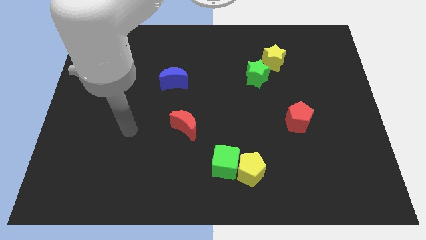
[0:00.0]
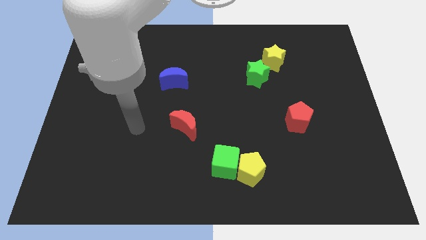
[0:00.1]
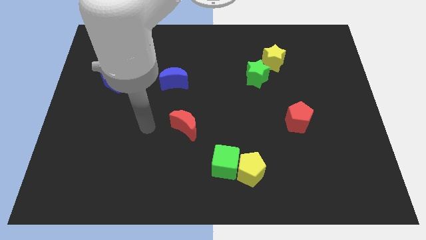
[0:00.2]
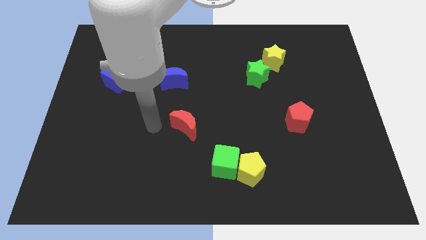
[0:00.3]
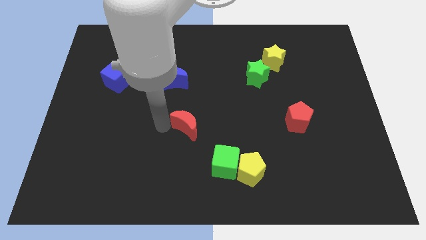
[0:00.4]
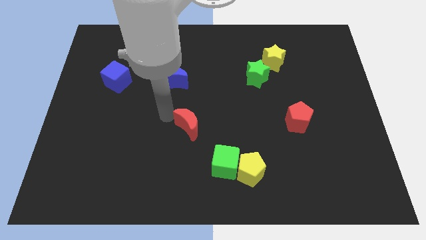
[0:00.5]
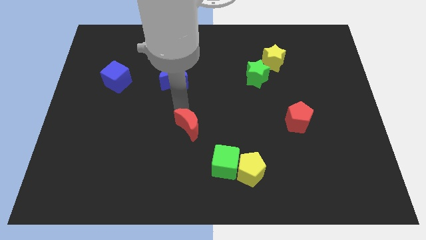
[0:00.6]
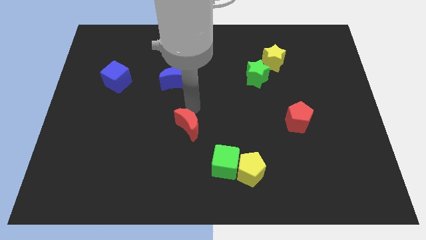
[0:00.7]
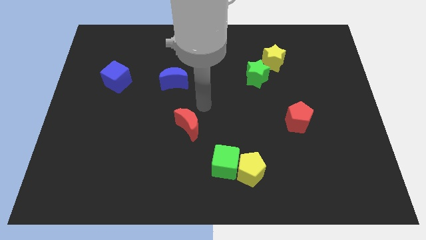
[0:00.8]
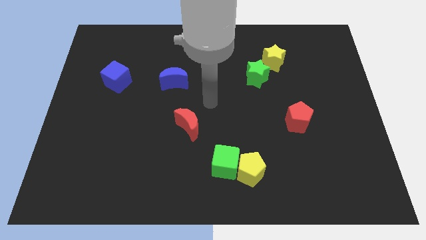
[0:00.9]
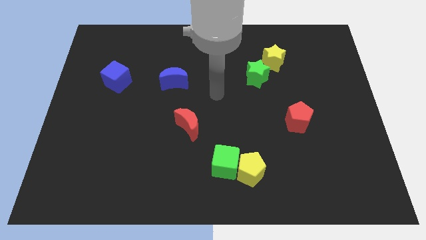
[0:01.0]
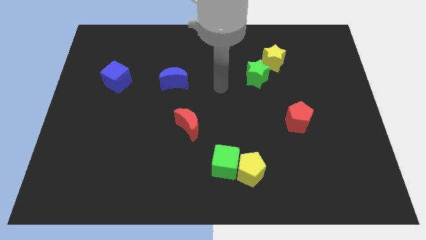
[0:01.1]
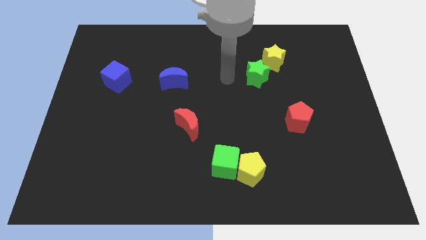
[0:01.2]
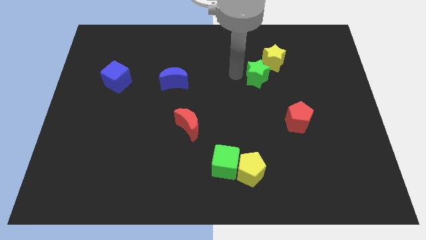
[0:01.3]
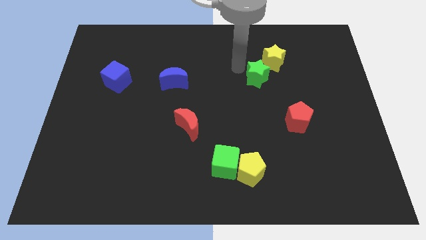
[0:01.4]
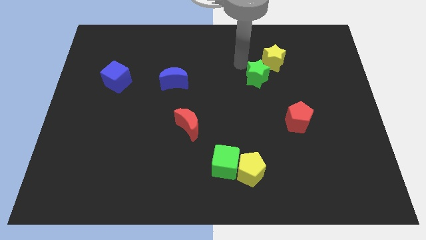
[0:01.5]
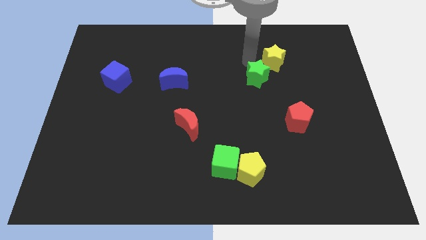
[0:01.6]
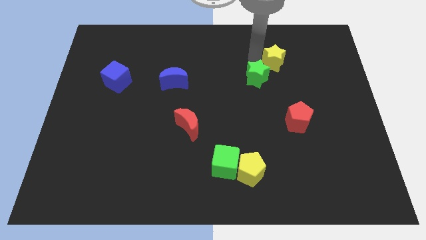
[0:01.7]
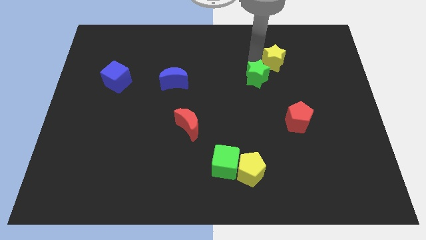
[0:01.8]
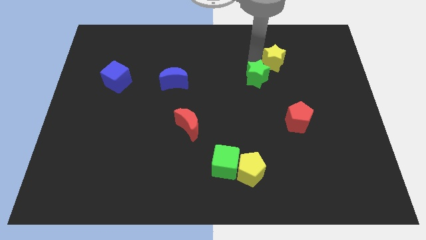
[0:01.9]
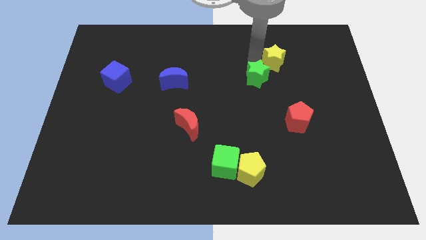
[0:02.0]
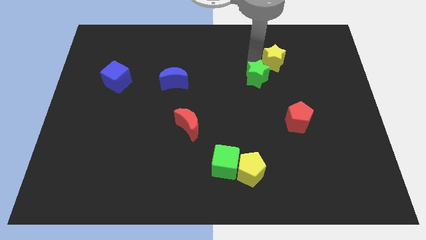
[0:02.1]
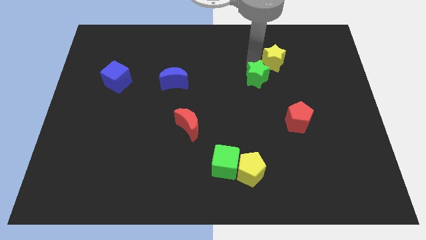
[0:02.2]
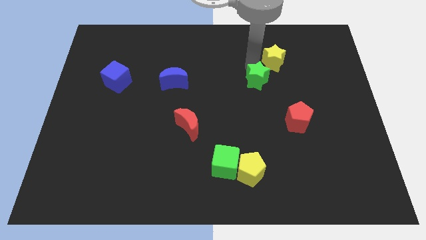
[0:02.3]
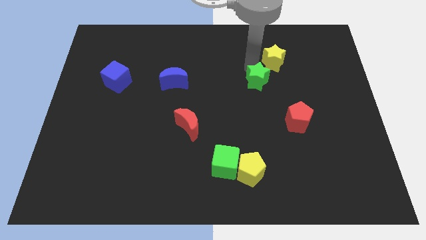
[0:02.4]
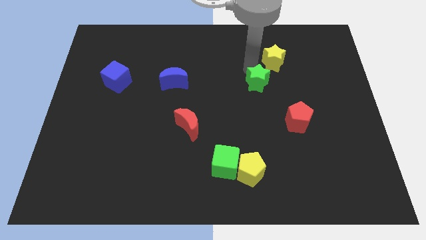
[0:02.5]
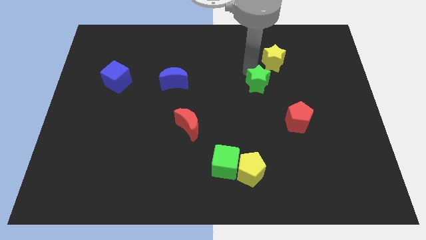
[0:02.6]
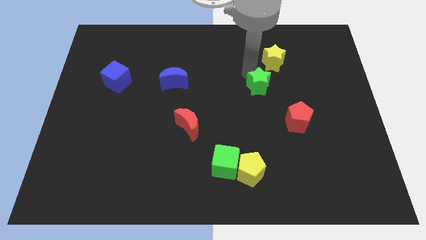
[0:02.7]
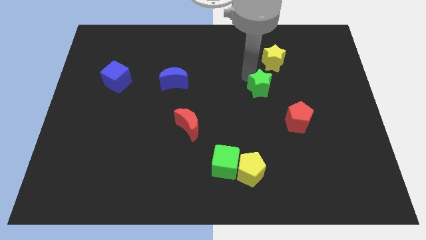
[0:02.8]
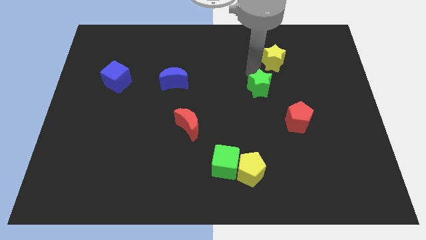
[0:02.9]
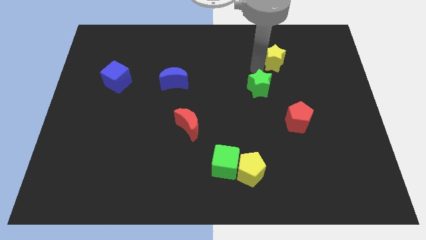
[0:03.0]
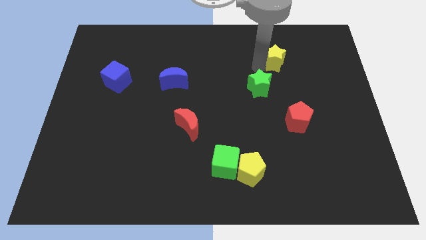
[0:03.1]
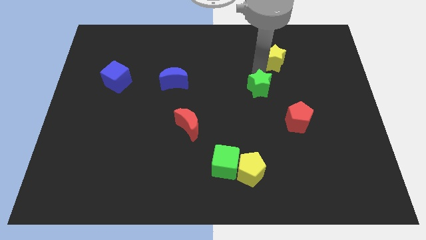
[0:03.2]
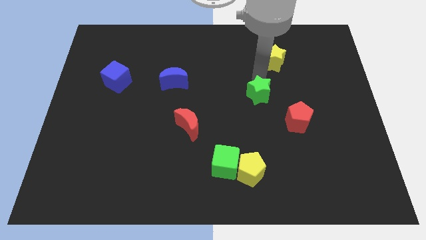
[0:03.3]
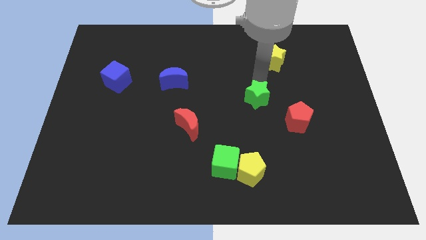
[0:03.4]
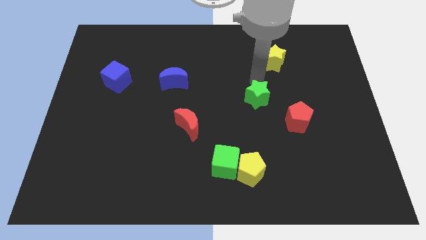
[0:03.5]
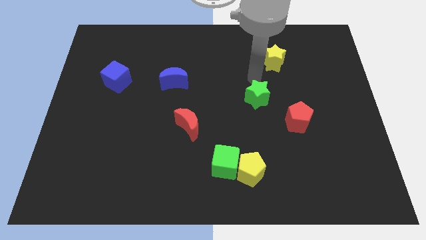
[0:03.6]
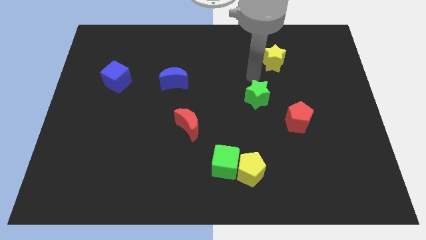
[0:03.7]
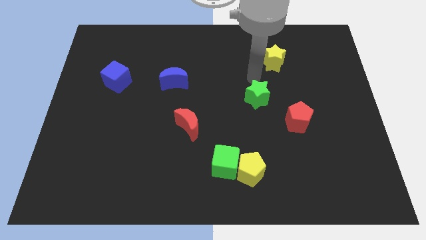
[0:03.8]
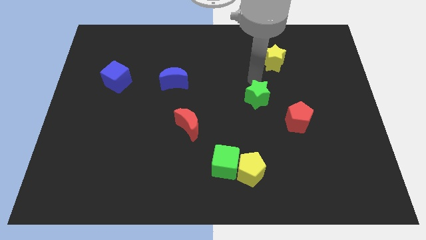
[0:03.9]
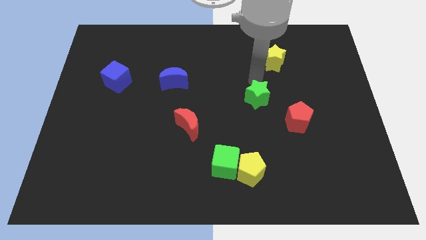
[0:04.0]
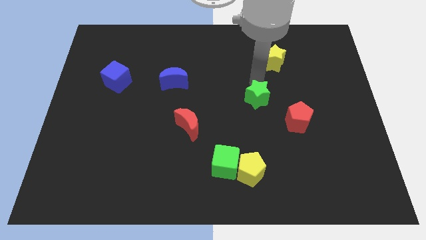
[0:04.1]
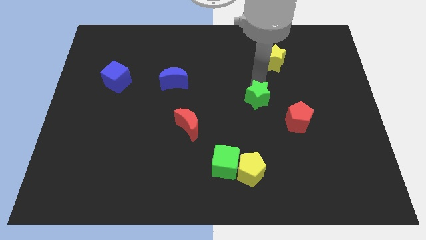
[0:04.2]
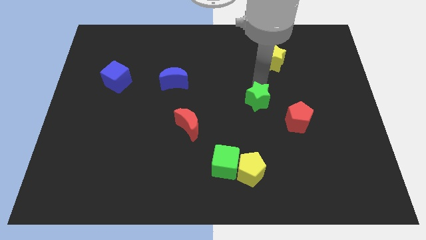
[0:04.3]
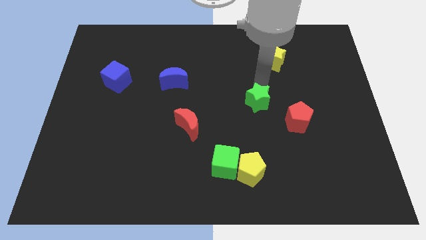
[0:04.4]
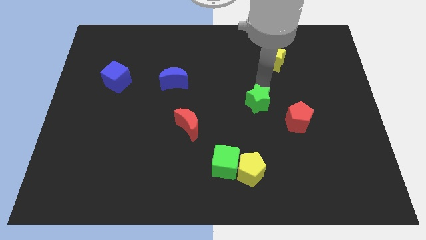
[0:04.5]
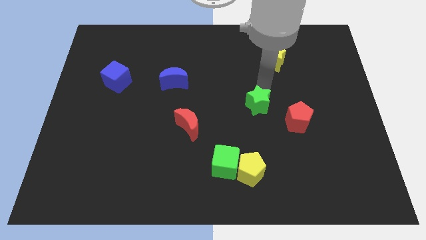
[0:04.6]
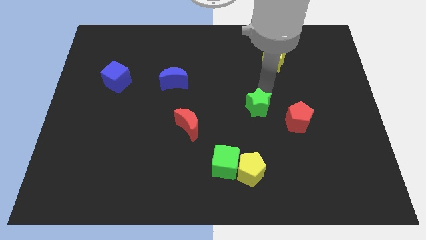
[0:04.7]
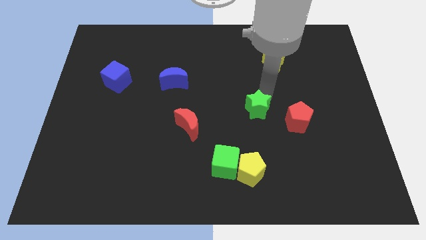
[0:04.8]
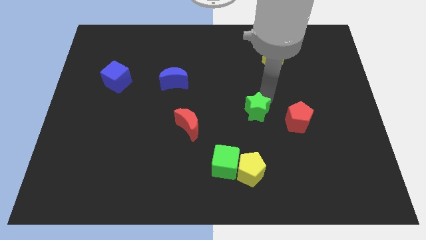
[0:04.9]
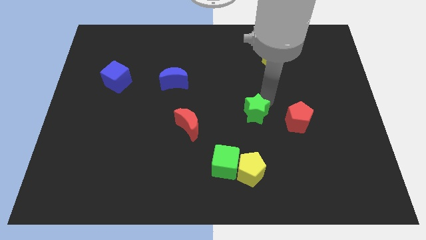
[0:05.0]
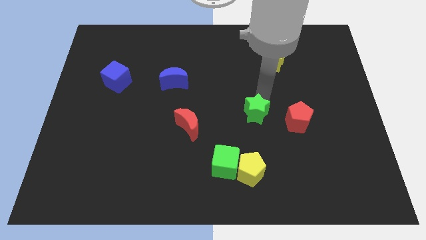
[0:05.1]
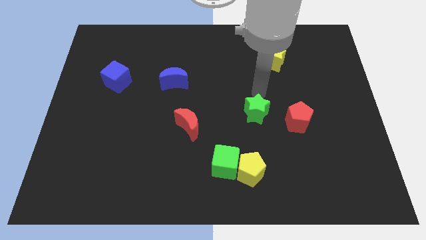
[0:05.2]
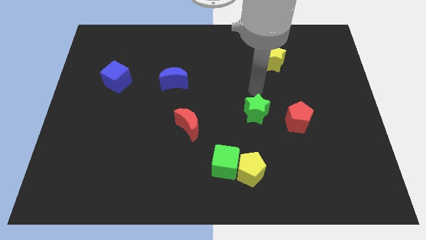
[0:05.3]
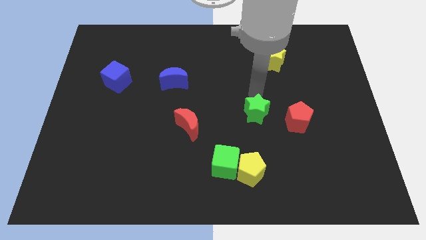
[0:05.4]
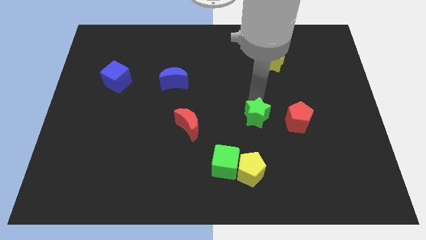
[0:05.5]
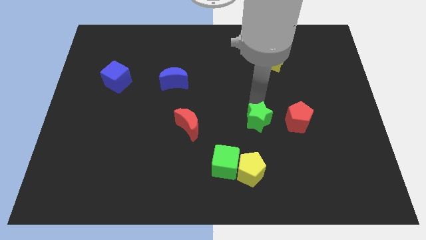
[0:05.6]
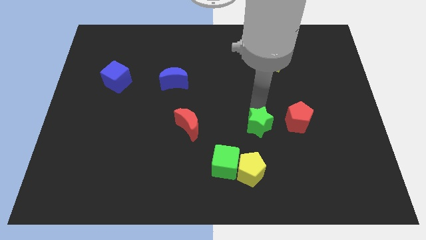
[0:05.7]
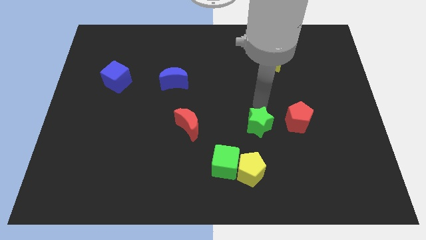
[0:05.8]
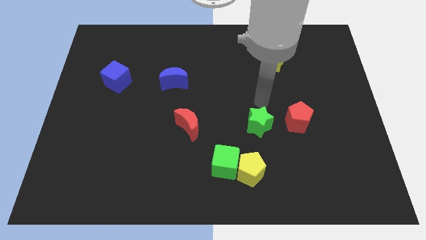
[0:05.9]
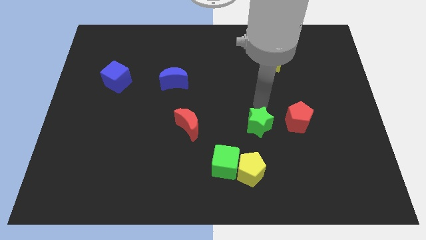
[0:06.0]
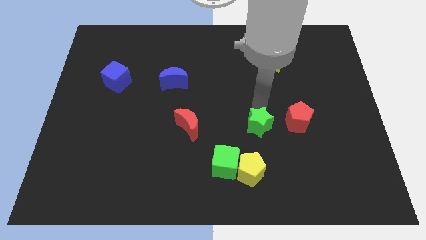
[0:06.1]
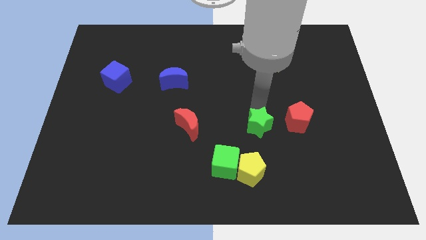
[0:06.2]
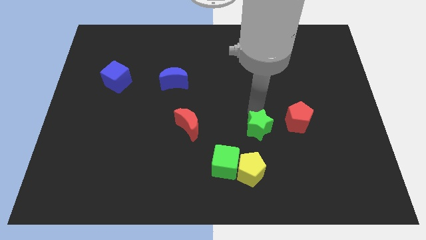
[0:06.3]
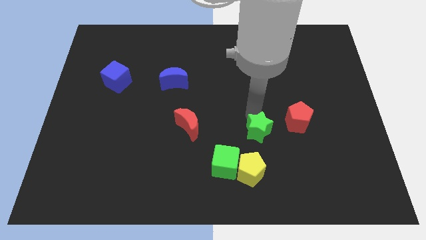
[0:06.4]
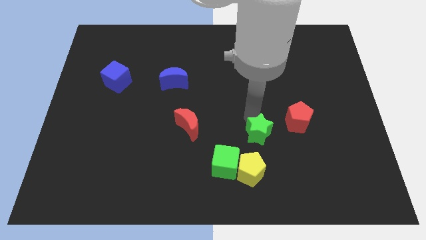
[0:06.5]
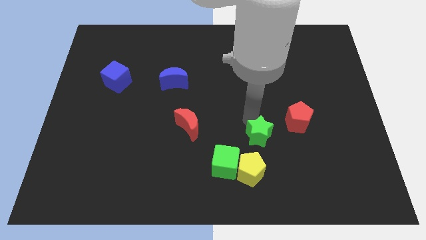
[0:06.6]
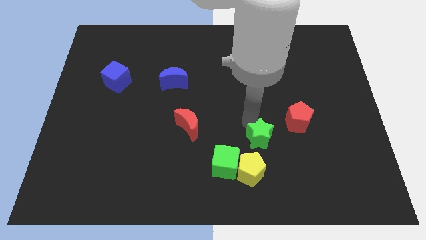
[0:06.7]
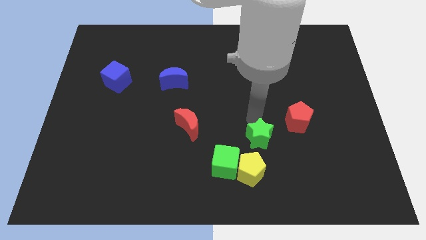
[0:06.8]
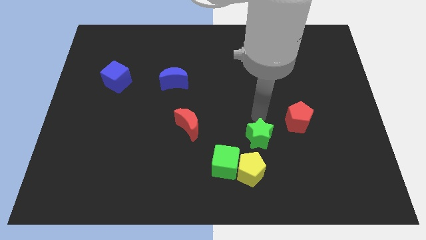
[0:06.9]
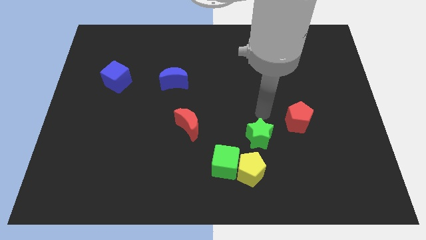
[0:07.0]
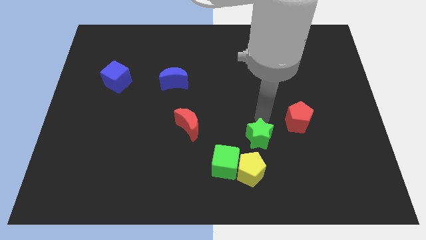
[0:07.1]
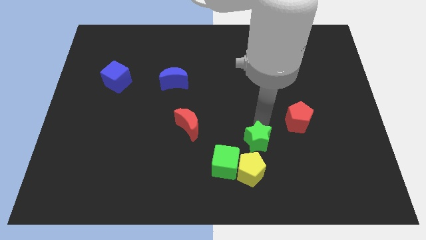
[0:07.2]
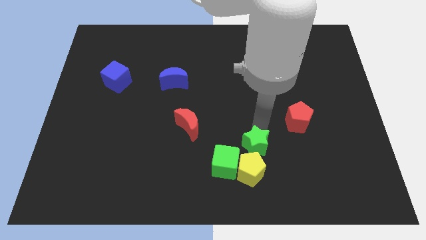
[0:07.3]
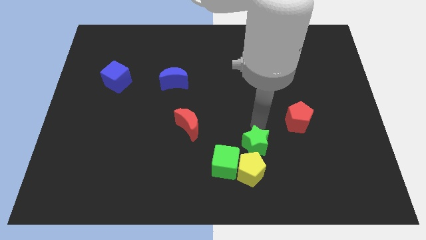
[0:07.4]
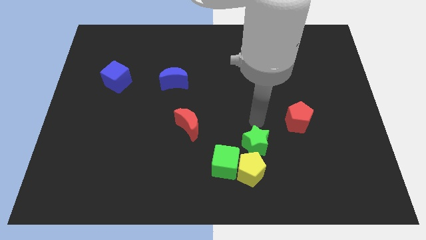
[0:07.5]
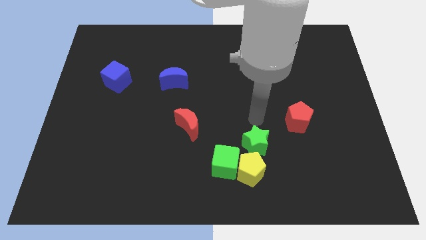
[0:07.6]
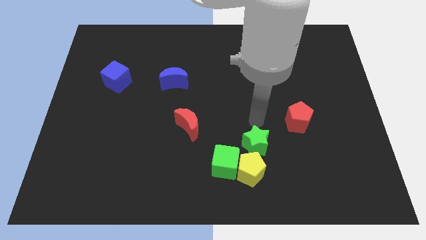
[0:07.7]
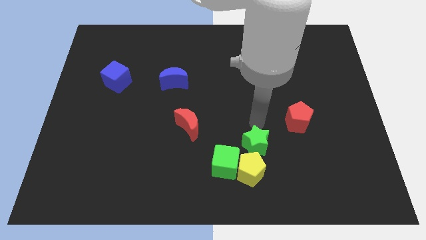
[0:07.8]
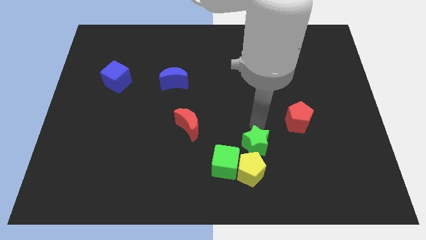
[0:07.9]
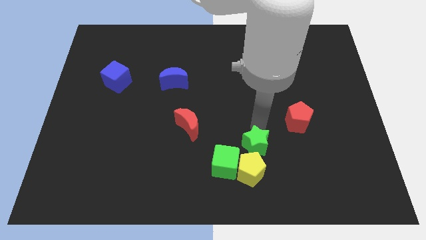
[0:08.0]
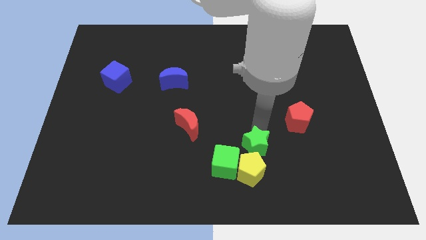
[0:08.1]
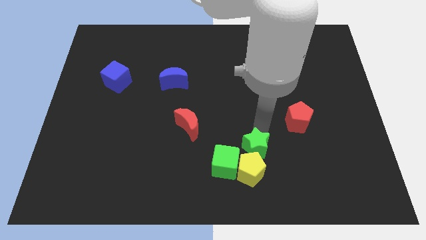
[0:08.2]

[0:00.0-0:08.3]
move the green star close to the yellow pentagon
